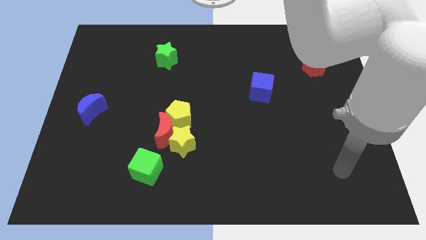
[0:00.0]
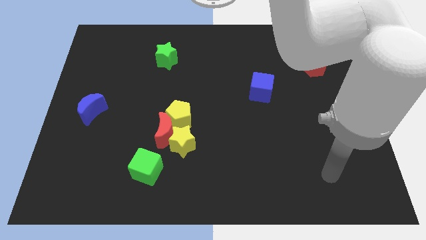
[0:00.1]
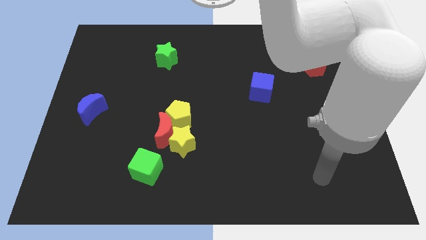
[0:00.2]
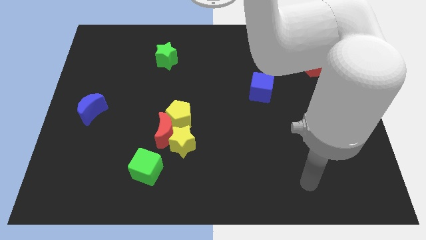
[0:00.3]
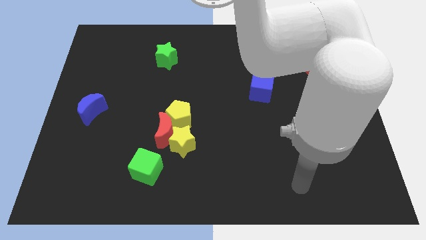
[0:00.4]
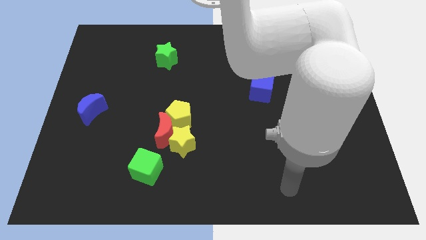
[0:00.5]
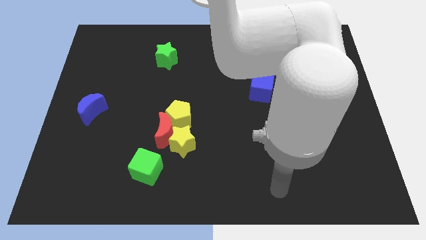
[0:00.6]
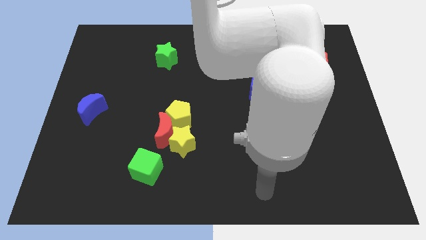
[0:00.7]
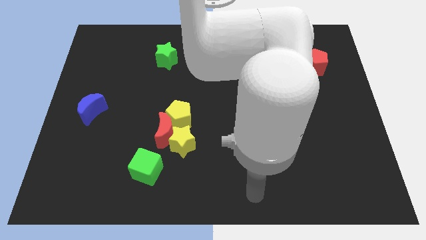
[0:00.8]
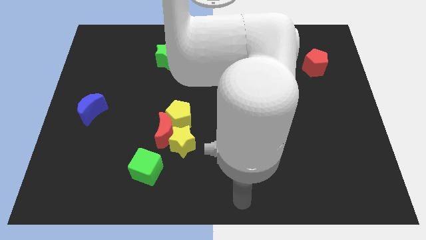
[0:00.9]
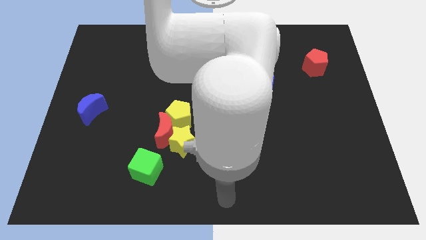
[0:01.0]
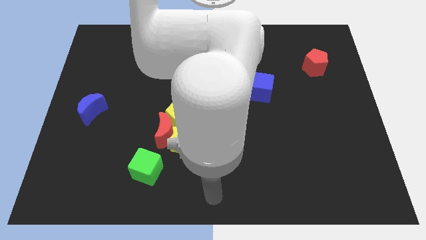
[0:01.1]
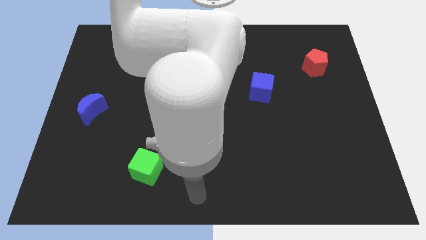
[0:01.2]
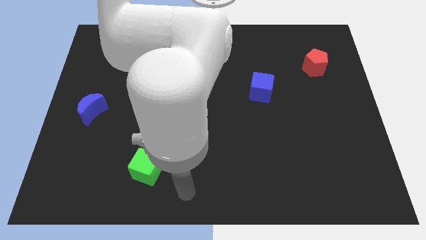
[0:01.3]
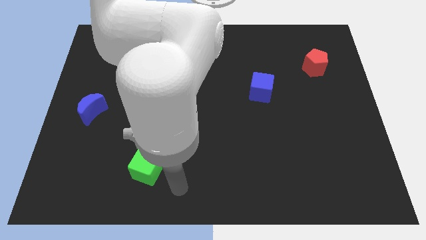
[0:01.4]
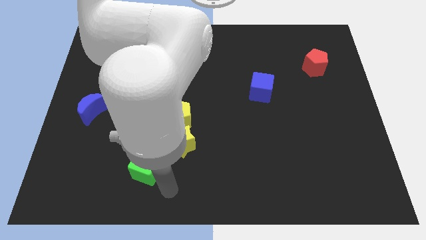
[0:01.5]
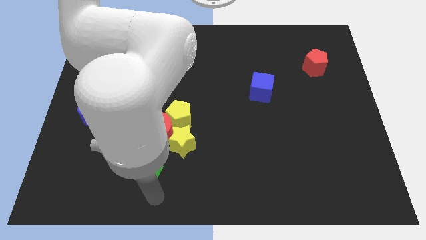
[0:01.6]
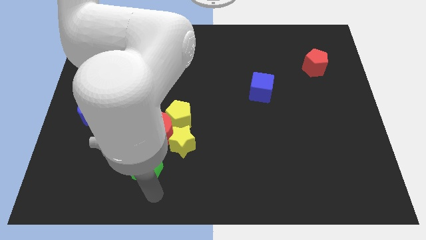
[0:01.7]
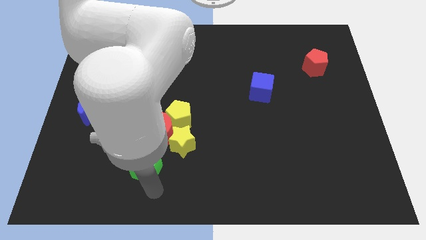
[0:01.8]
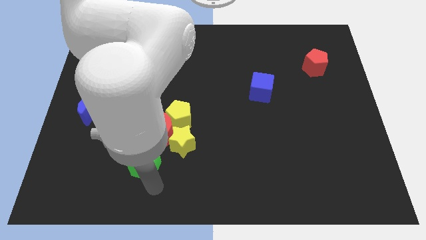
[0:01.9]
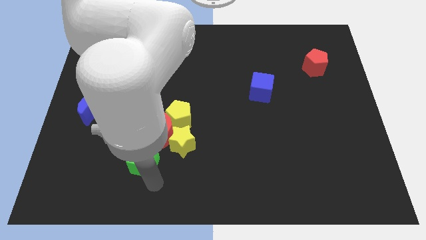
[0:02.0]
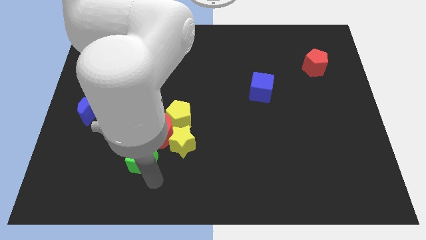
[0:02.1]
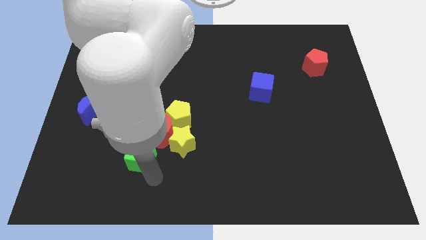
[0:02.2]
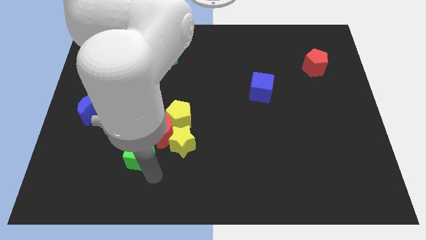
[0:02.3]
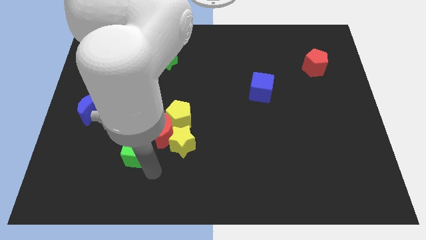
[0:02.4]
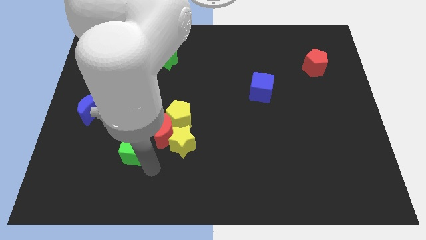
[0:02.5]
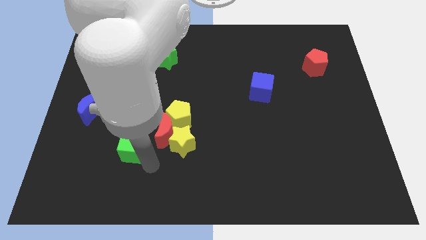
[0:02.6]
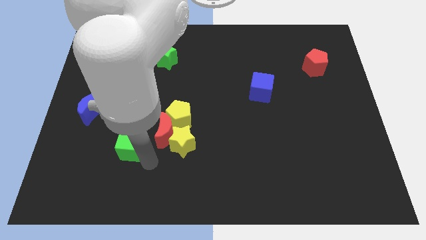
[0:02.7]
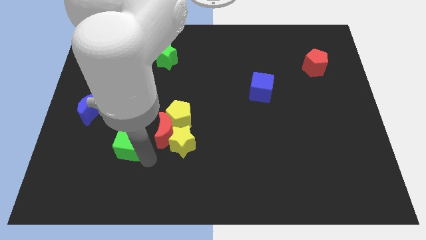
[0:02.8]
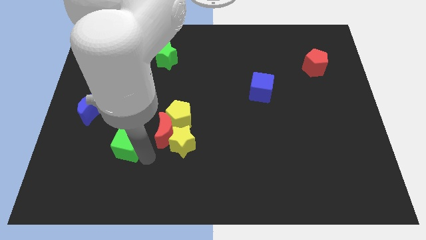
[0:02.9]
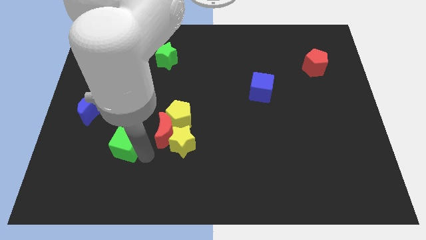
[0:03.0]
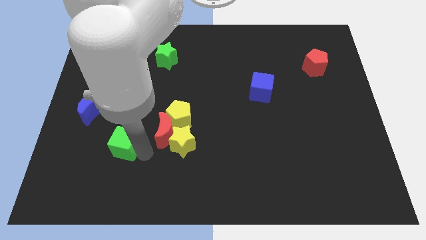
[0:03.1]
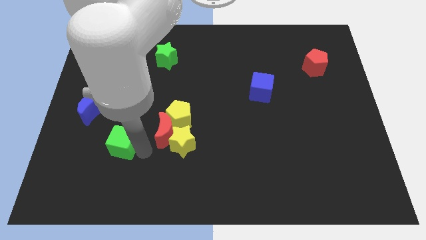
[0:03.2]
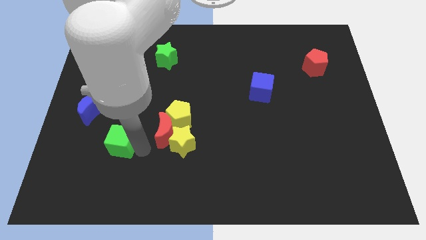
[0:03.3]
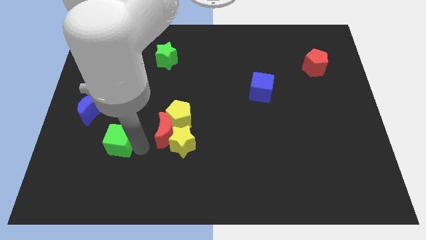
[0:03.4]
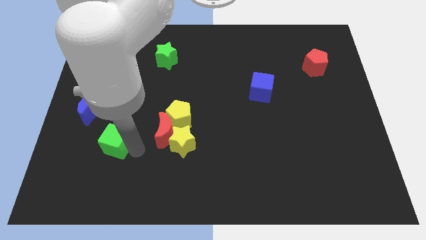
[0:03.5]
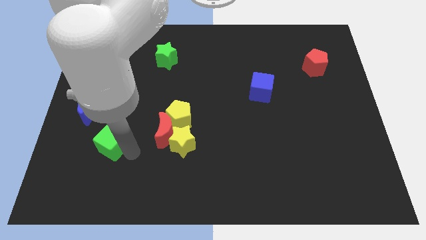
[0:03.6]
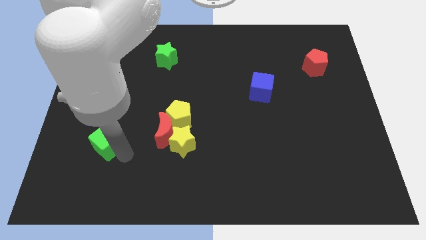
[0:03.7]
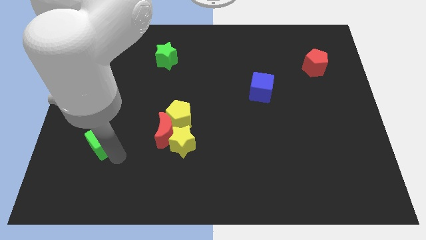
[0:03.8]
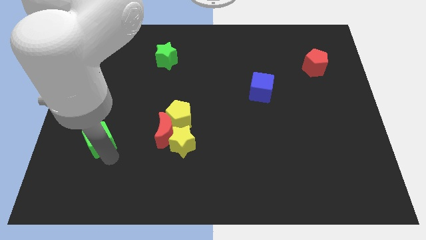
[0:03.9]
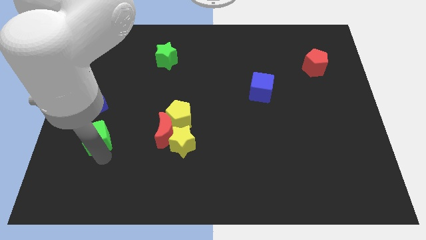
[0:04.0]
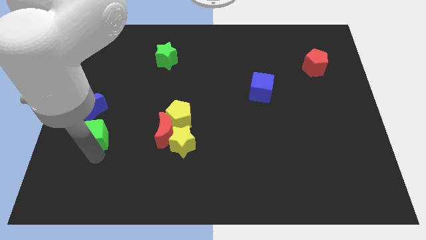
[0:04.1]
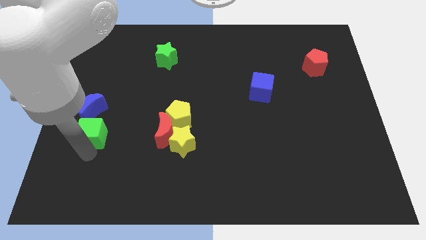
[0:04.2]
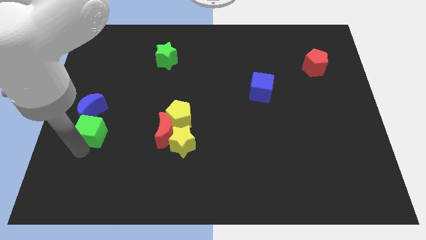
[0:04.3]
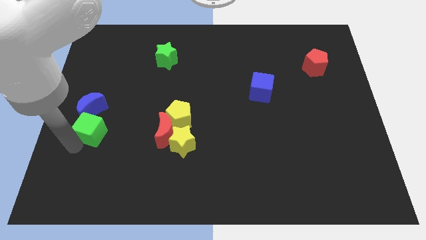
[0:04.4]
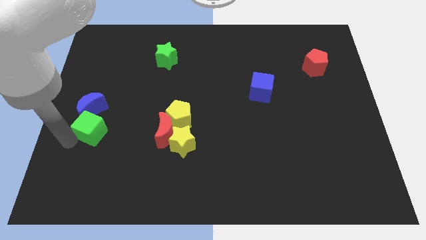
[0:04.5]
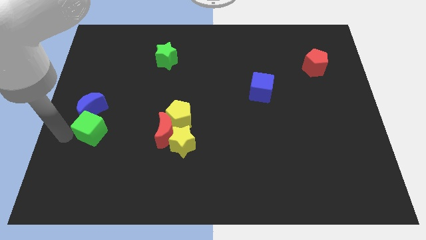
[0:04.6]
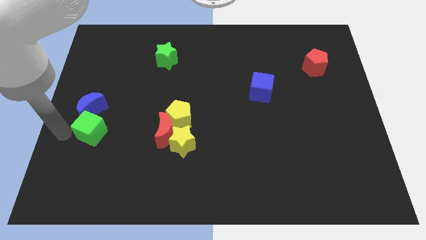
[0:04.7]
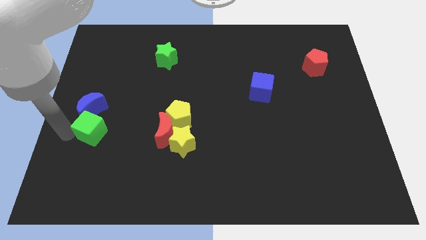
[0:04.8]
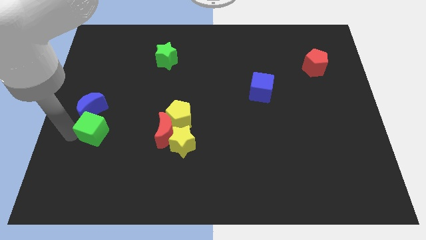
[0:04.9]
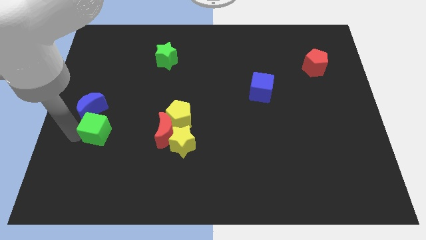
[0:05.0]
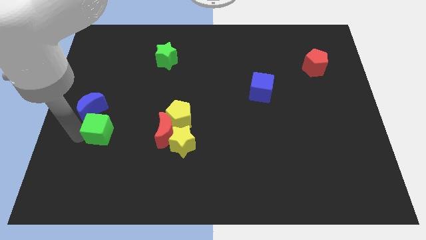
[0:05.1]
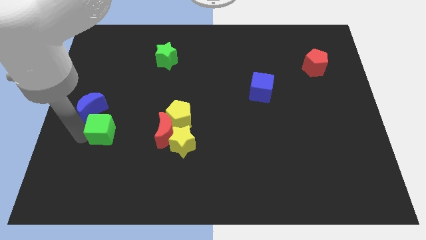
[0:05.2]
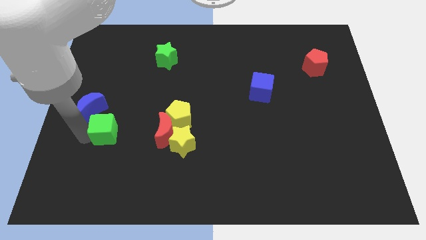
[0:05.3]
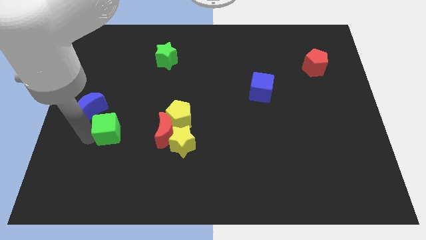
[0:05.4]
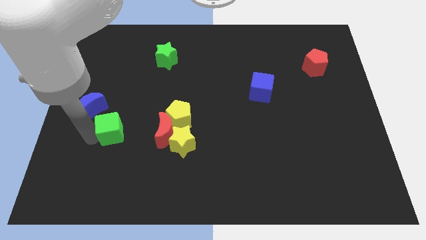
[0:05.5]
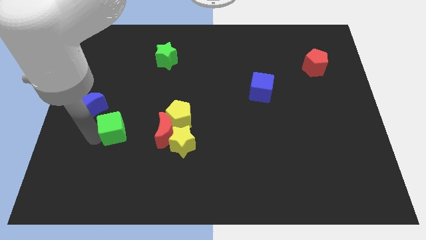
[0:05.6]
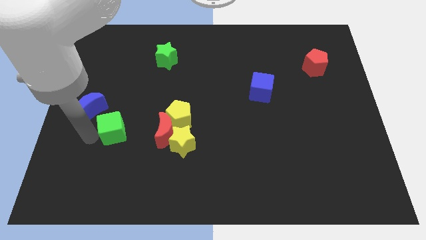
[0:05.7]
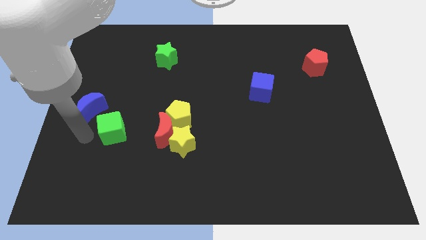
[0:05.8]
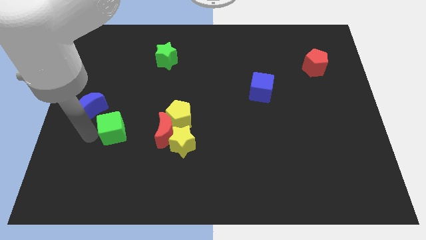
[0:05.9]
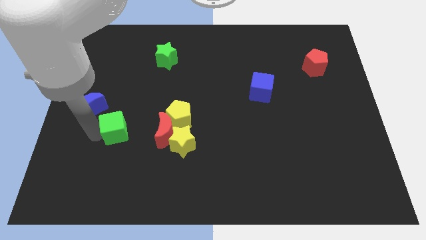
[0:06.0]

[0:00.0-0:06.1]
slide the green cube somewhat upwards

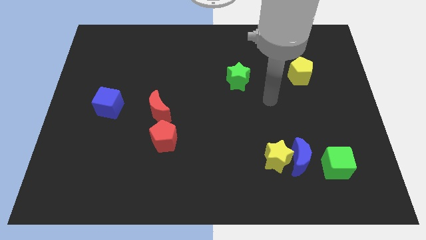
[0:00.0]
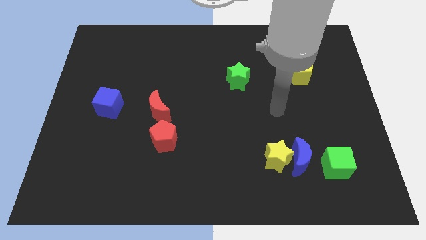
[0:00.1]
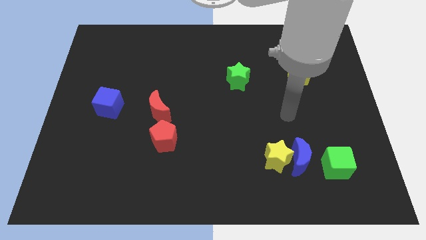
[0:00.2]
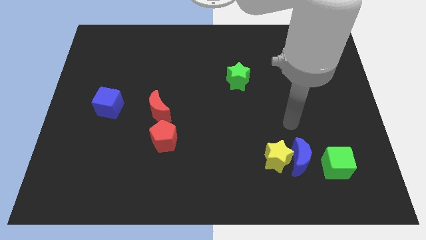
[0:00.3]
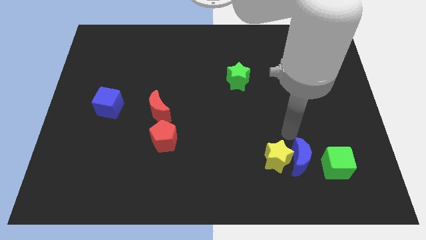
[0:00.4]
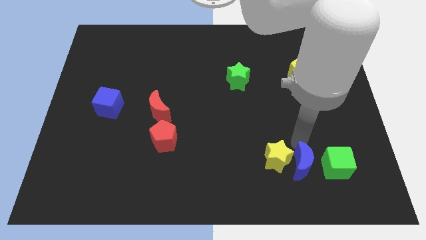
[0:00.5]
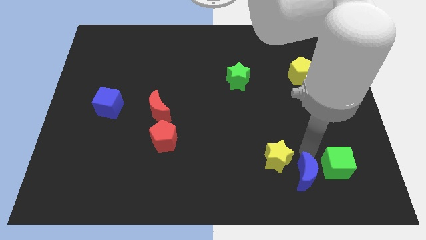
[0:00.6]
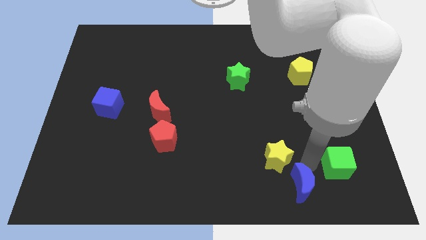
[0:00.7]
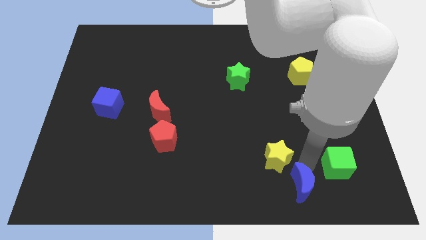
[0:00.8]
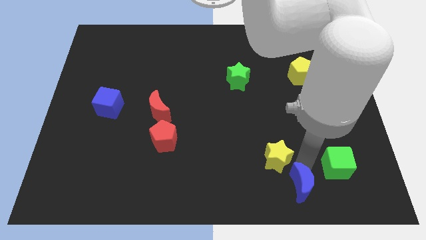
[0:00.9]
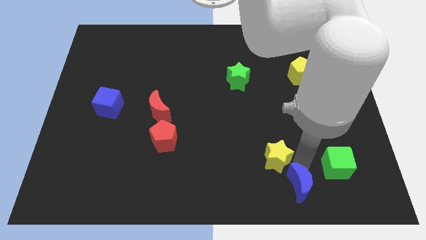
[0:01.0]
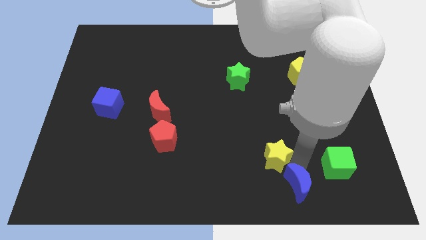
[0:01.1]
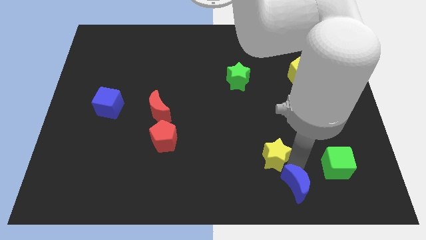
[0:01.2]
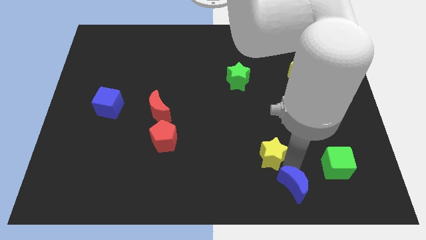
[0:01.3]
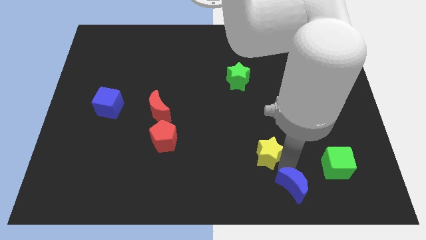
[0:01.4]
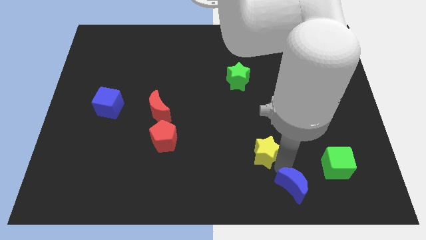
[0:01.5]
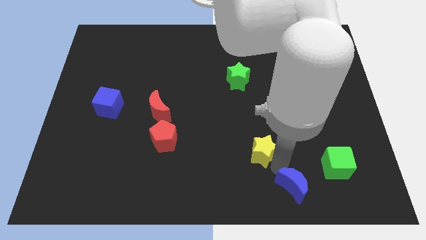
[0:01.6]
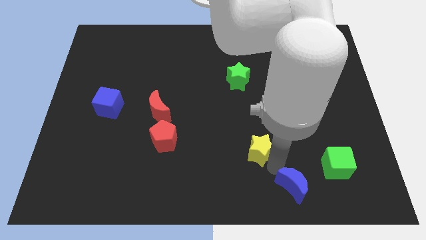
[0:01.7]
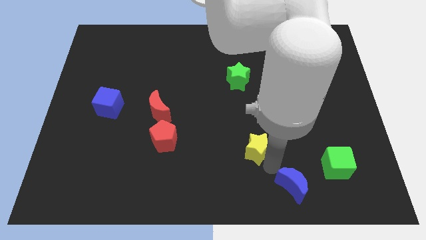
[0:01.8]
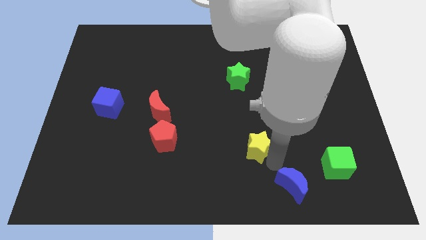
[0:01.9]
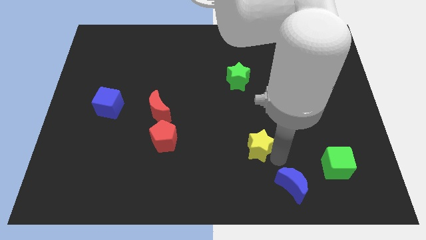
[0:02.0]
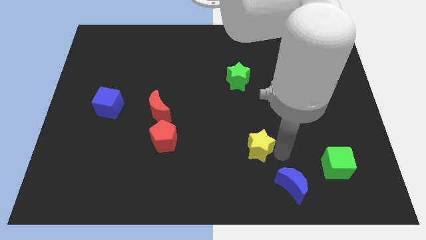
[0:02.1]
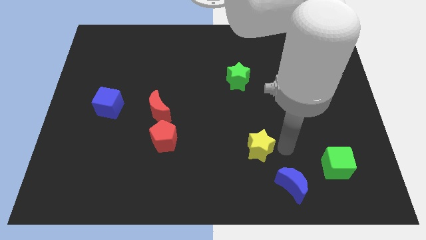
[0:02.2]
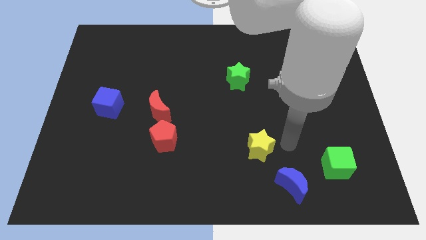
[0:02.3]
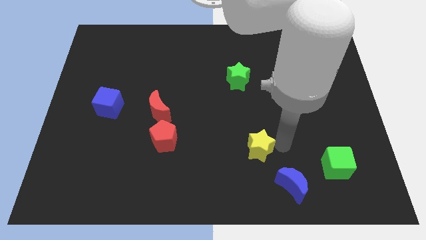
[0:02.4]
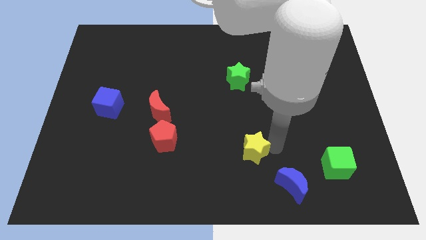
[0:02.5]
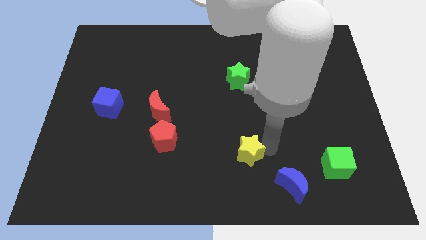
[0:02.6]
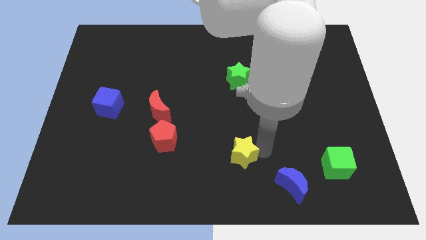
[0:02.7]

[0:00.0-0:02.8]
slightly slide the yellow star to the left
